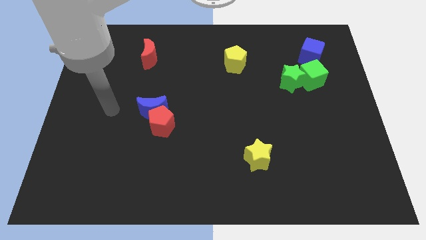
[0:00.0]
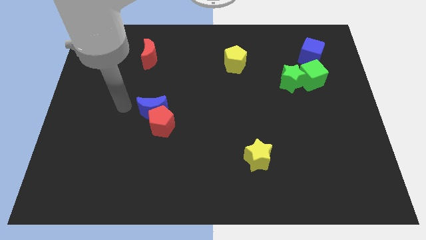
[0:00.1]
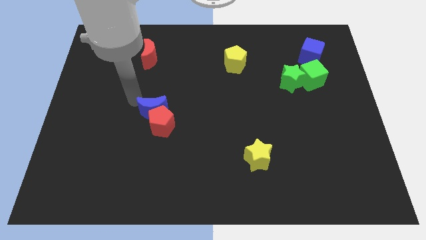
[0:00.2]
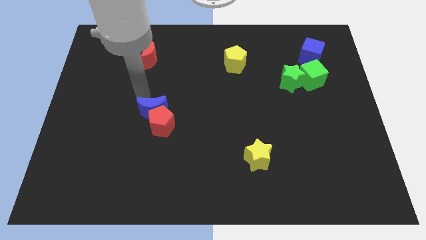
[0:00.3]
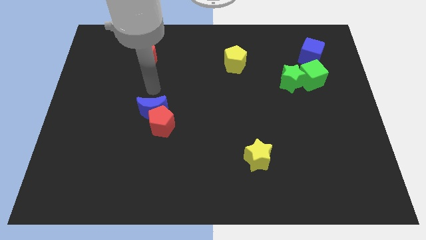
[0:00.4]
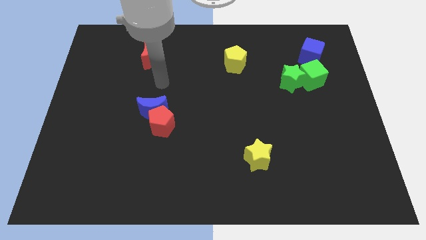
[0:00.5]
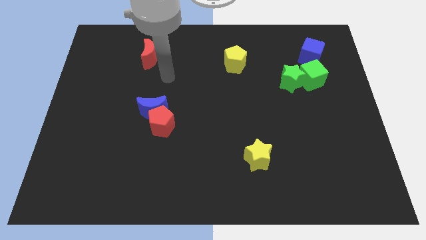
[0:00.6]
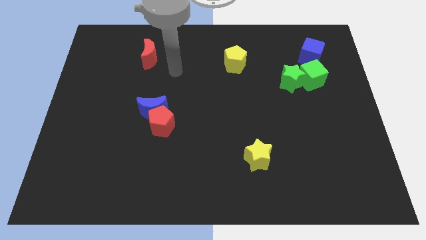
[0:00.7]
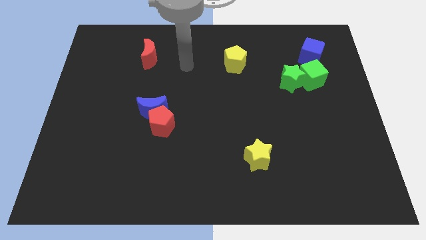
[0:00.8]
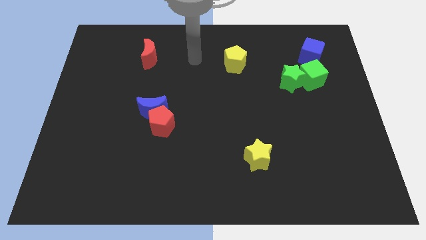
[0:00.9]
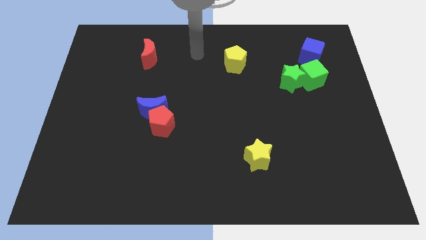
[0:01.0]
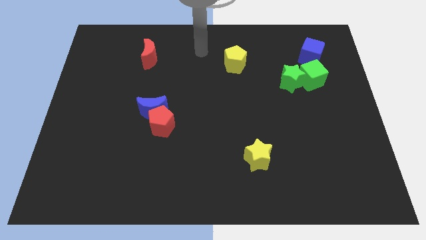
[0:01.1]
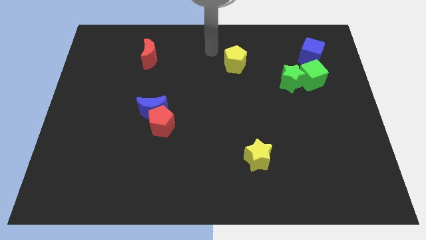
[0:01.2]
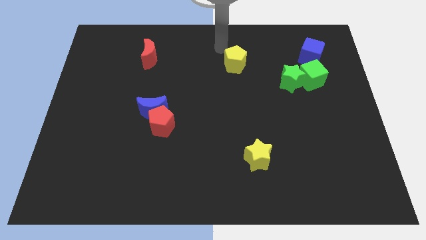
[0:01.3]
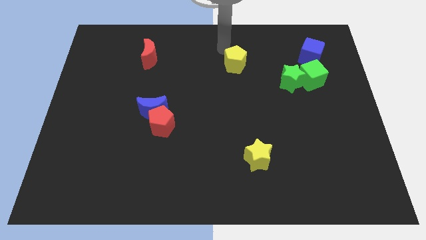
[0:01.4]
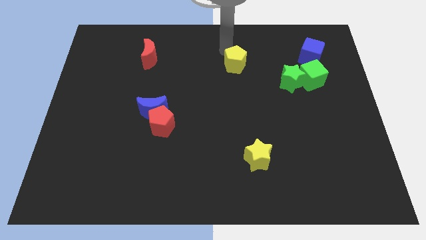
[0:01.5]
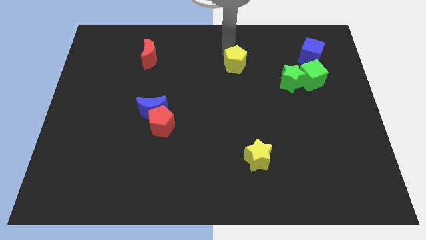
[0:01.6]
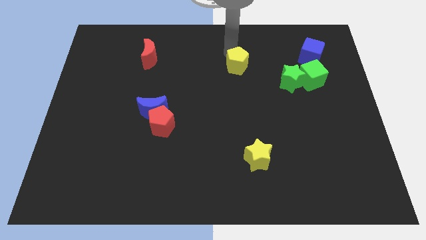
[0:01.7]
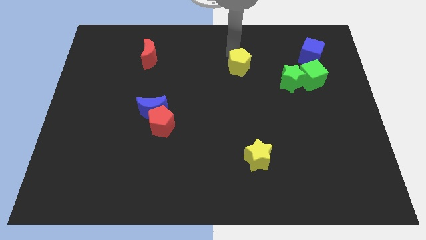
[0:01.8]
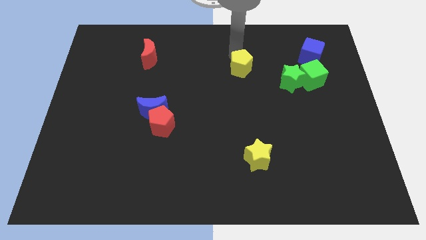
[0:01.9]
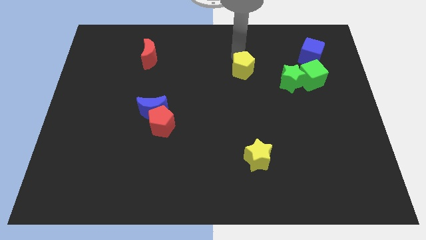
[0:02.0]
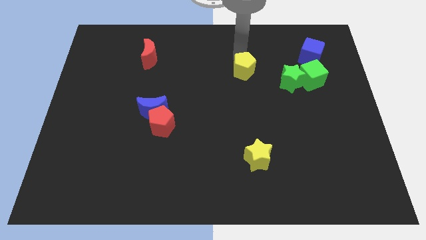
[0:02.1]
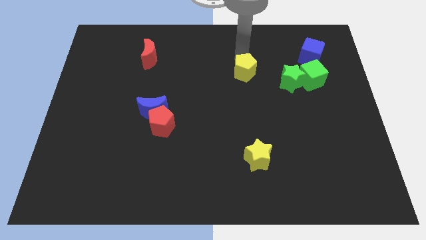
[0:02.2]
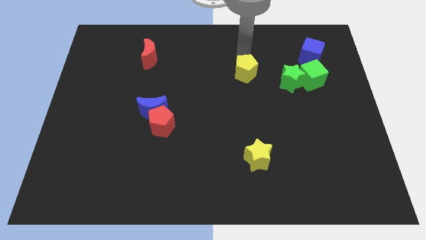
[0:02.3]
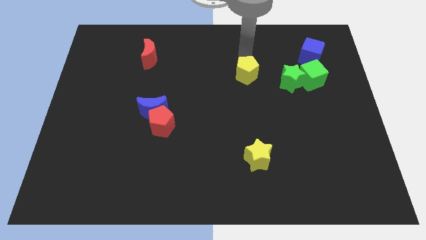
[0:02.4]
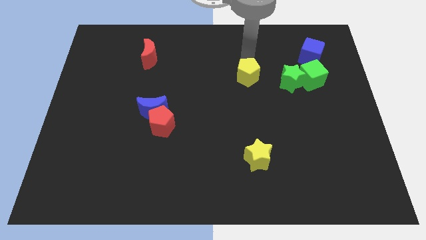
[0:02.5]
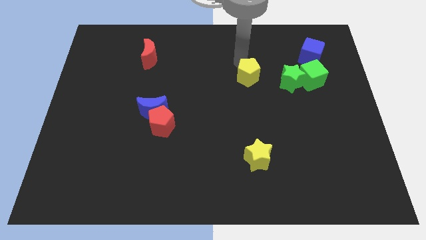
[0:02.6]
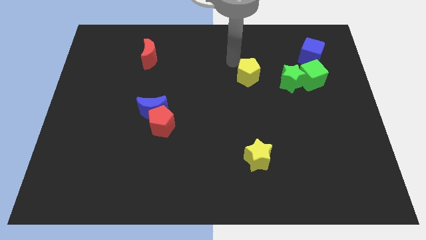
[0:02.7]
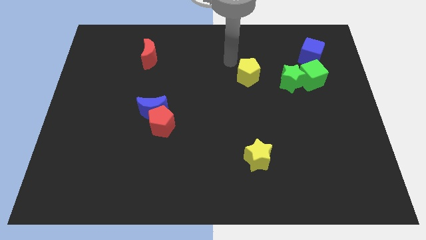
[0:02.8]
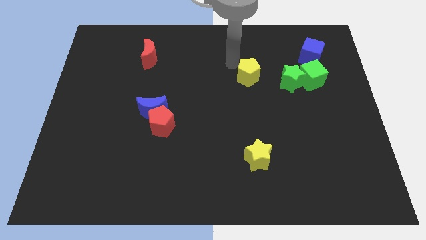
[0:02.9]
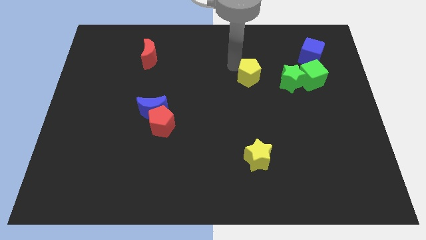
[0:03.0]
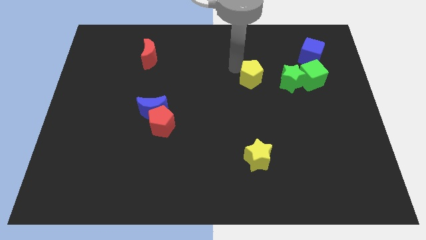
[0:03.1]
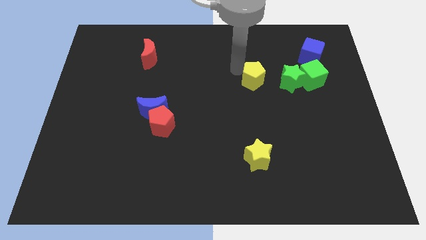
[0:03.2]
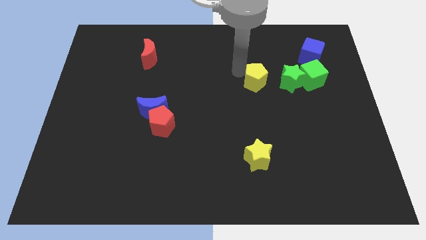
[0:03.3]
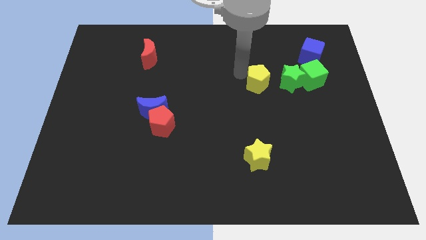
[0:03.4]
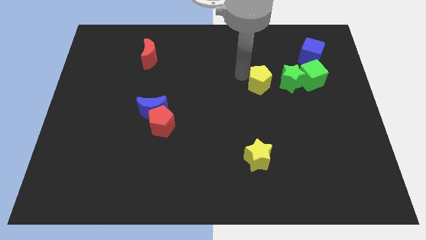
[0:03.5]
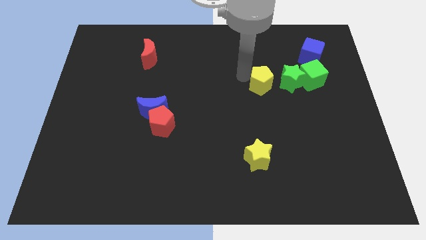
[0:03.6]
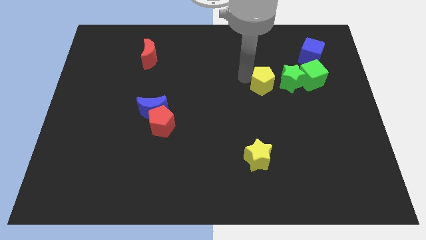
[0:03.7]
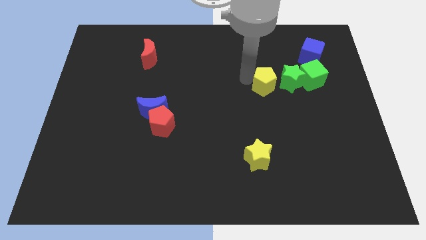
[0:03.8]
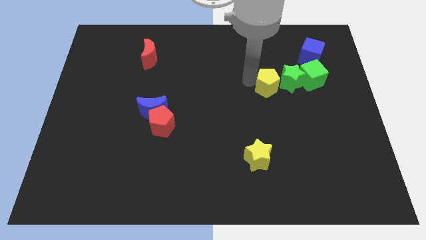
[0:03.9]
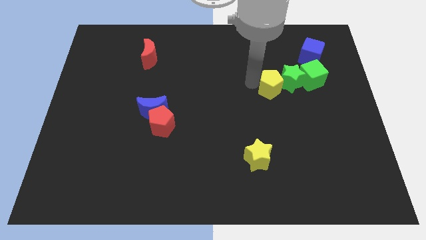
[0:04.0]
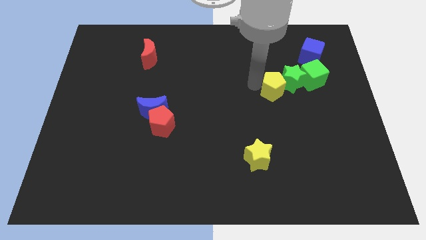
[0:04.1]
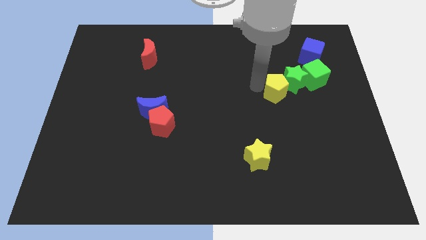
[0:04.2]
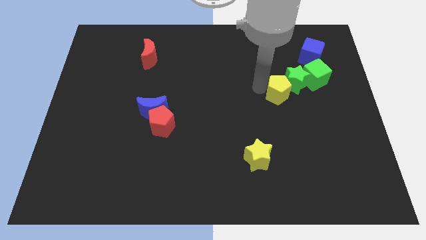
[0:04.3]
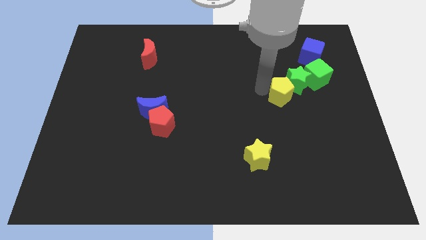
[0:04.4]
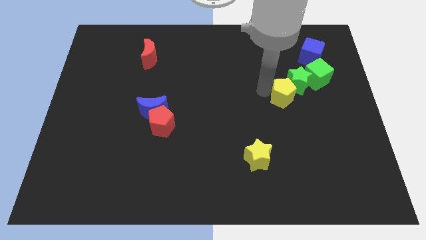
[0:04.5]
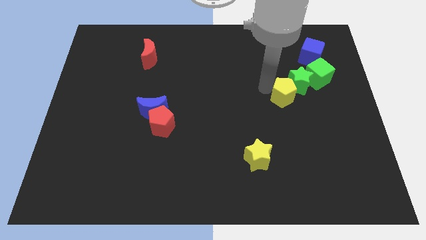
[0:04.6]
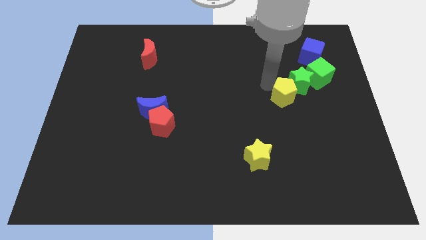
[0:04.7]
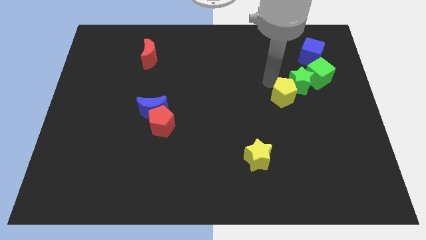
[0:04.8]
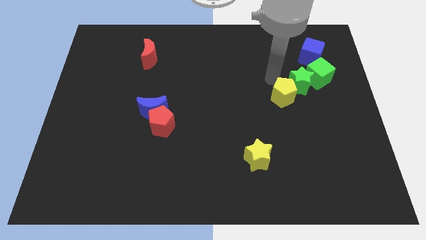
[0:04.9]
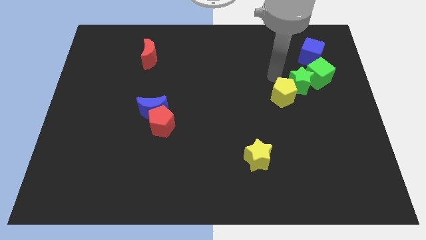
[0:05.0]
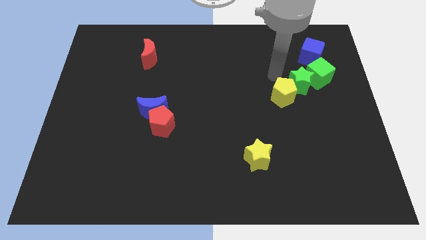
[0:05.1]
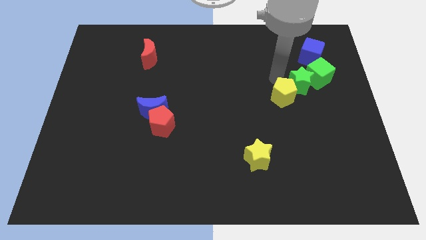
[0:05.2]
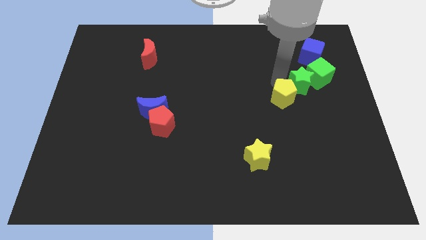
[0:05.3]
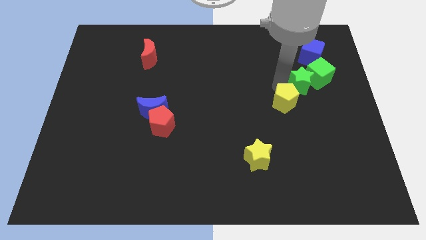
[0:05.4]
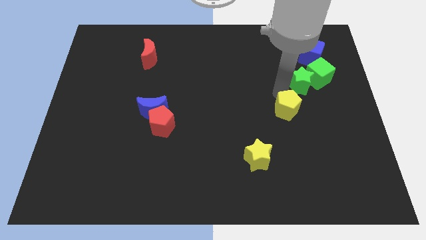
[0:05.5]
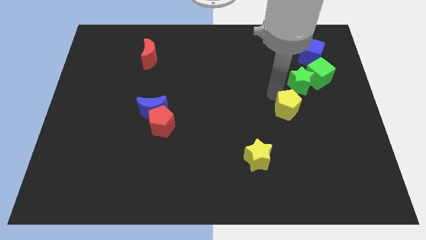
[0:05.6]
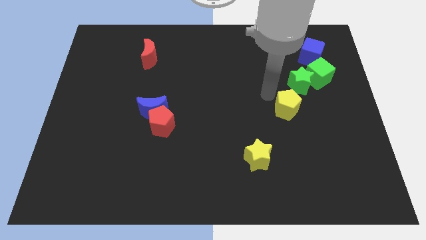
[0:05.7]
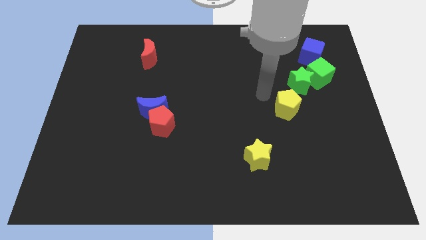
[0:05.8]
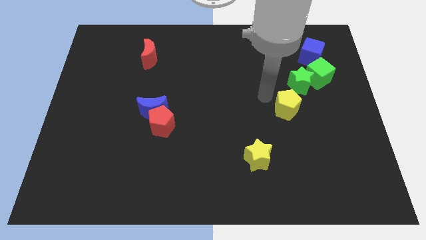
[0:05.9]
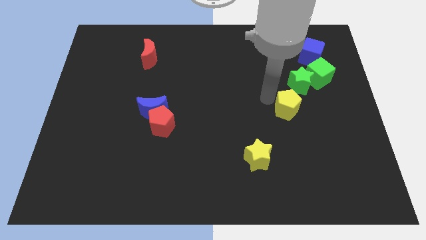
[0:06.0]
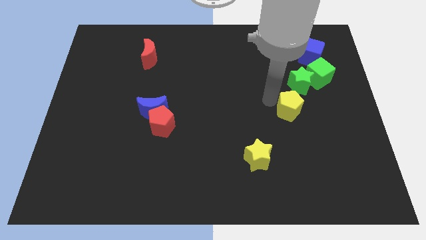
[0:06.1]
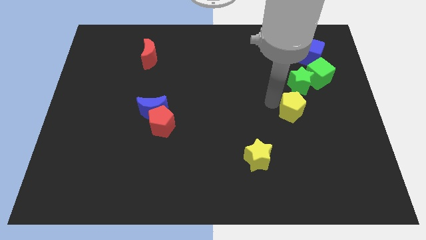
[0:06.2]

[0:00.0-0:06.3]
slide the yellow pentagon diagonally down and right

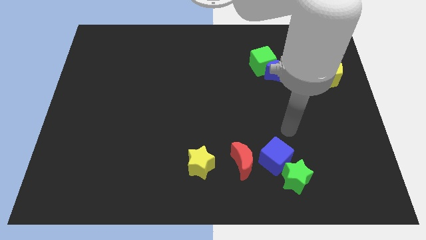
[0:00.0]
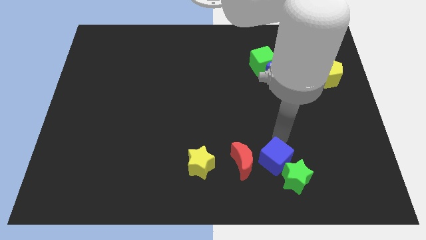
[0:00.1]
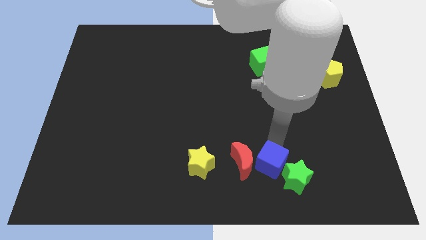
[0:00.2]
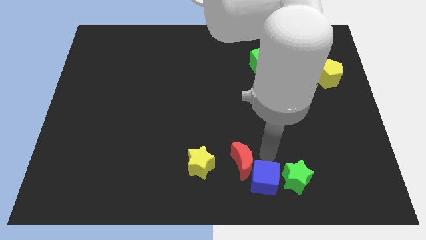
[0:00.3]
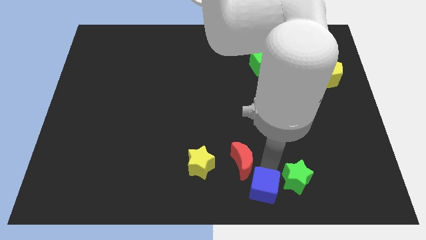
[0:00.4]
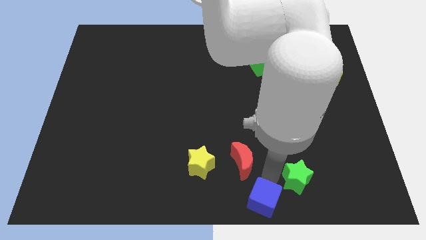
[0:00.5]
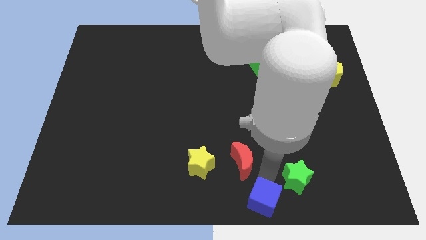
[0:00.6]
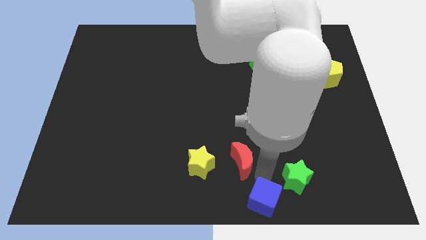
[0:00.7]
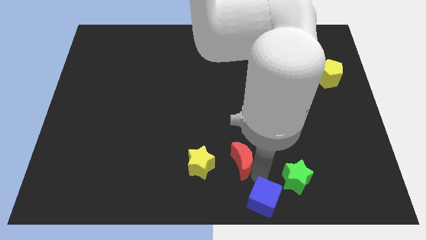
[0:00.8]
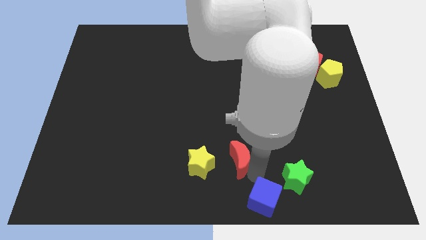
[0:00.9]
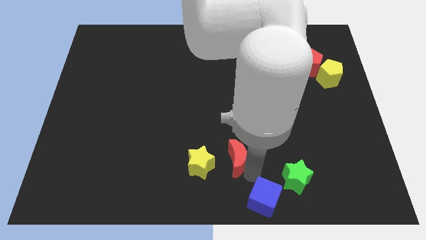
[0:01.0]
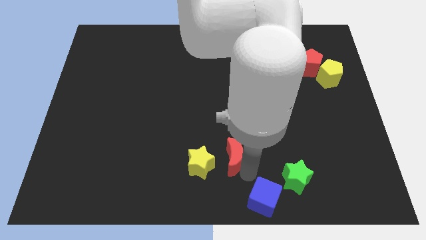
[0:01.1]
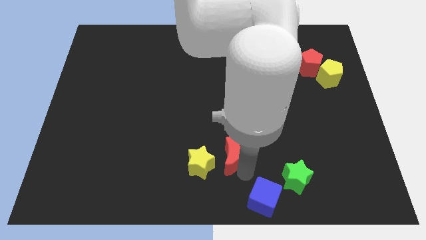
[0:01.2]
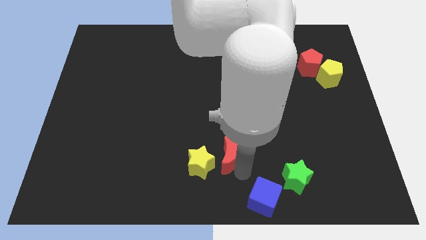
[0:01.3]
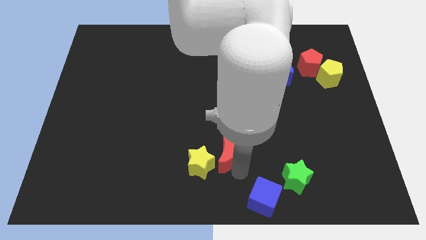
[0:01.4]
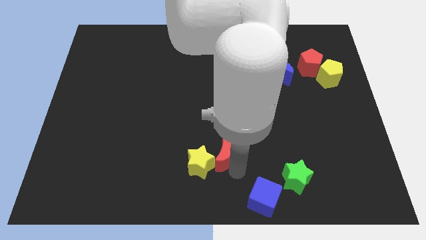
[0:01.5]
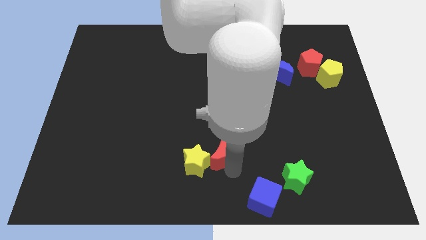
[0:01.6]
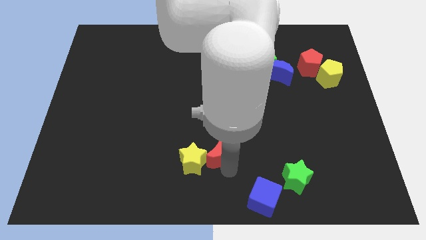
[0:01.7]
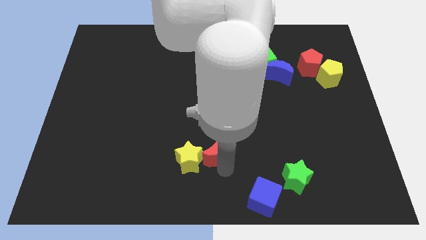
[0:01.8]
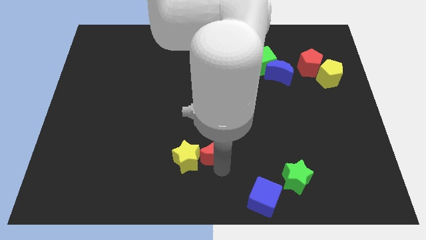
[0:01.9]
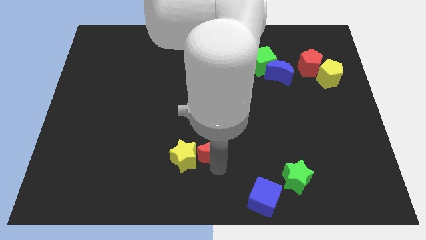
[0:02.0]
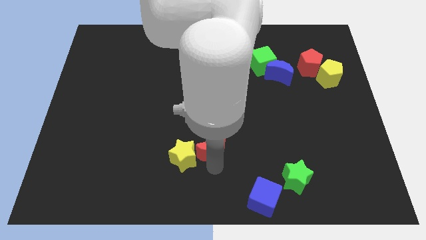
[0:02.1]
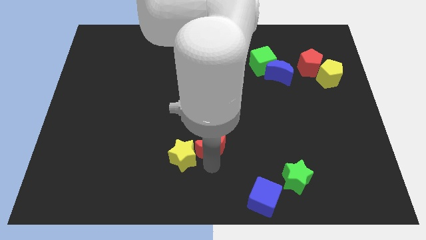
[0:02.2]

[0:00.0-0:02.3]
push the red moon slightly upwards and left diagonally
